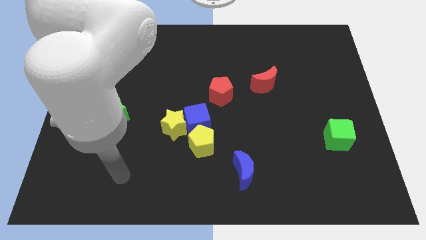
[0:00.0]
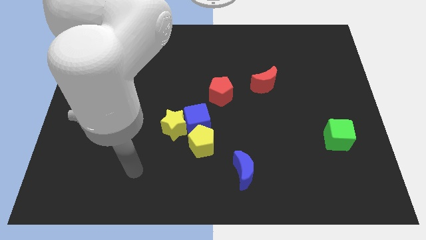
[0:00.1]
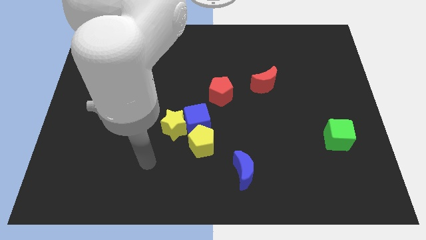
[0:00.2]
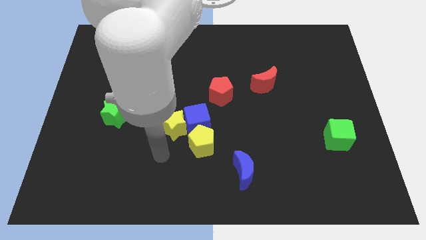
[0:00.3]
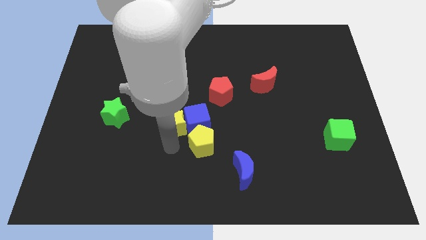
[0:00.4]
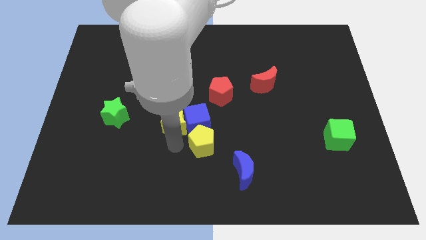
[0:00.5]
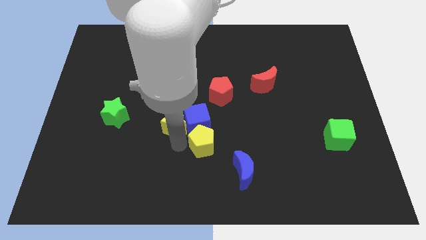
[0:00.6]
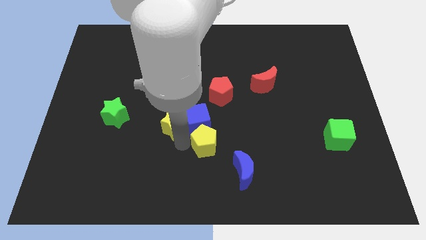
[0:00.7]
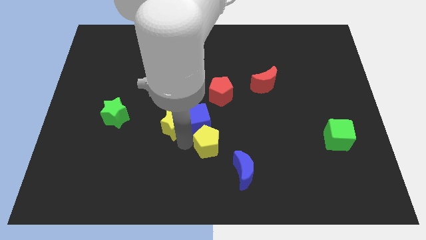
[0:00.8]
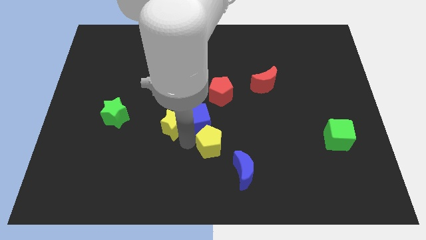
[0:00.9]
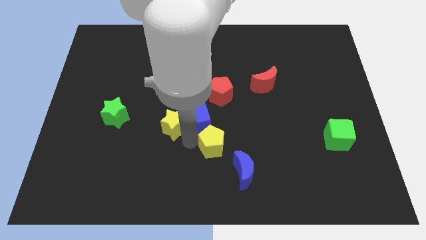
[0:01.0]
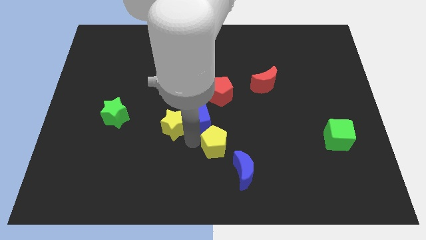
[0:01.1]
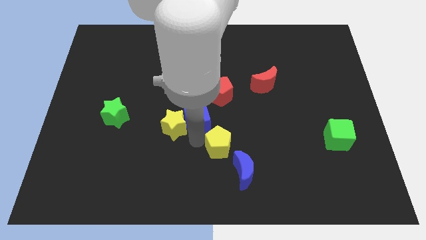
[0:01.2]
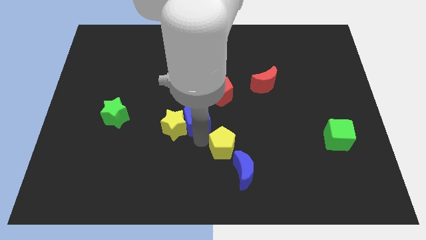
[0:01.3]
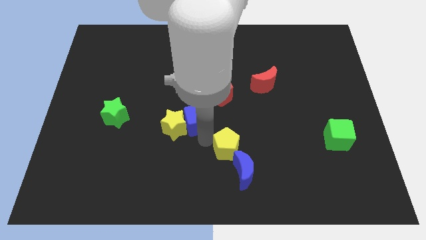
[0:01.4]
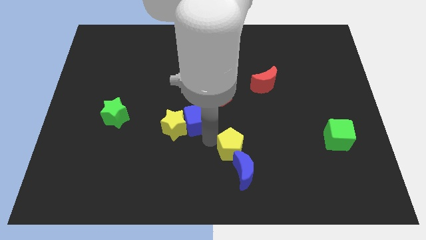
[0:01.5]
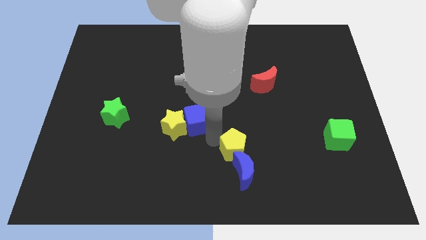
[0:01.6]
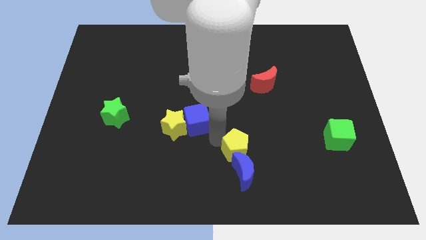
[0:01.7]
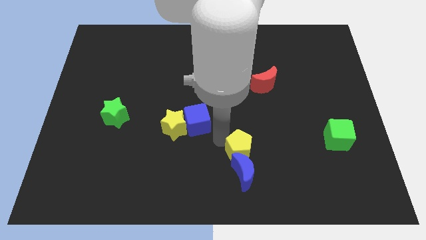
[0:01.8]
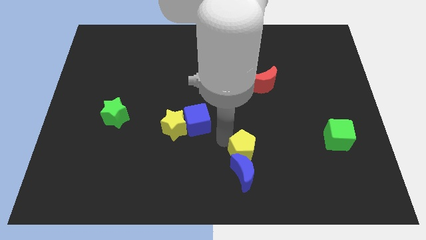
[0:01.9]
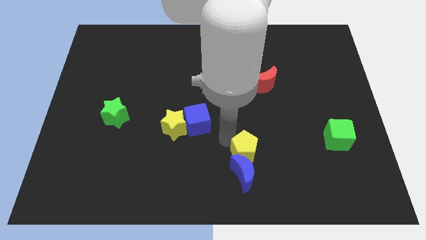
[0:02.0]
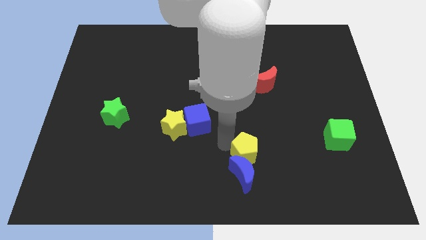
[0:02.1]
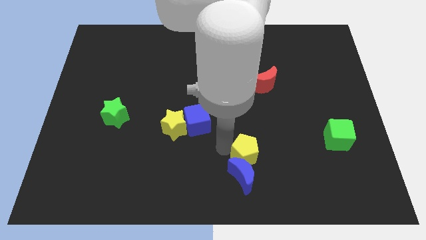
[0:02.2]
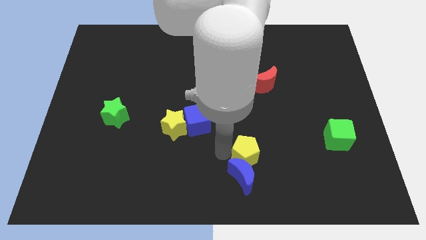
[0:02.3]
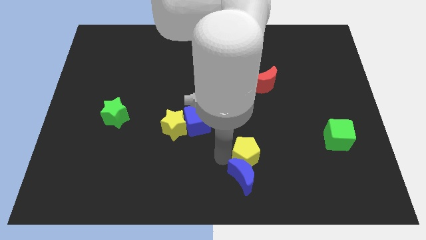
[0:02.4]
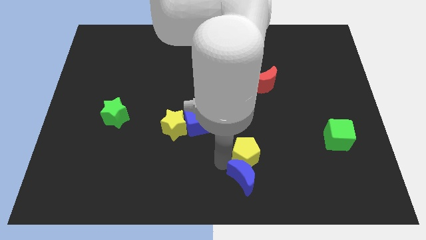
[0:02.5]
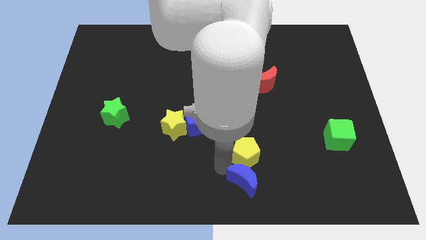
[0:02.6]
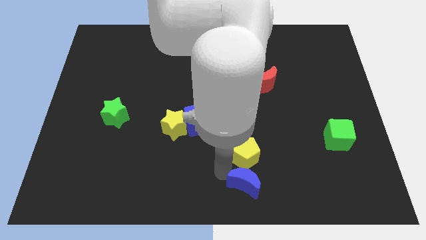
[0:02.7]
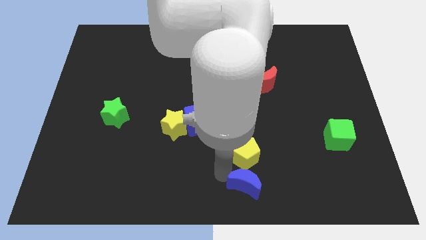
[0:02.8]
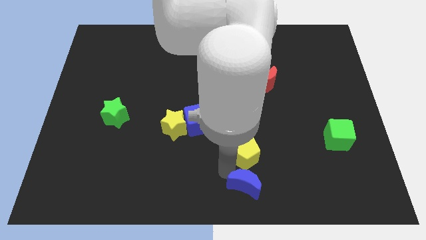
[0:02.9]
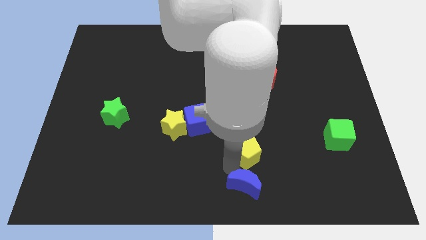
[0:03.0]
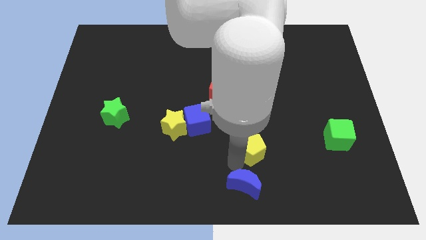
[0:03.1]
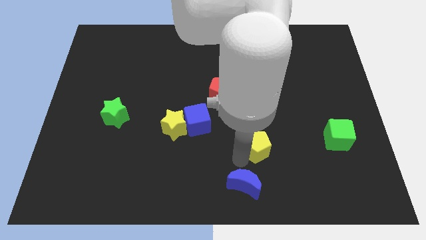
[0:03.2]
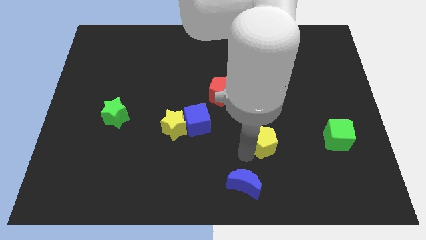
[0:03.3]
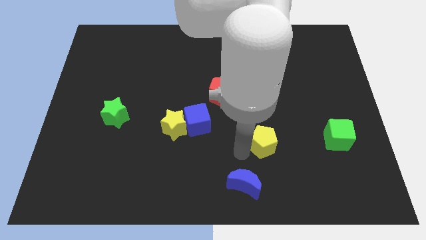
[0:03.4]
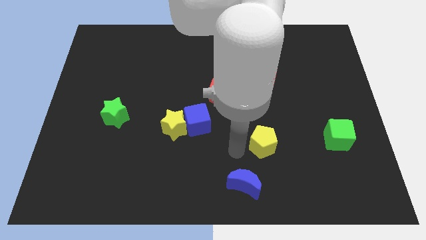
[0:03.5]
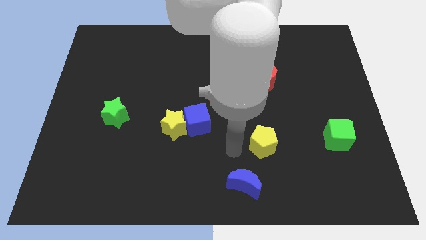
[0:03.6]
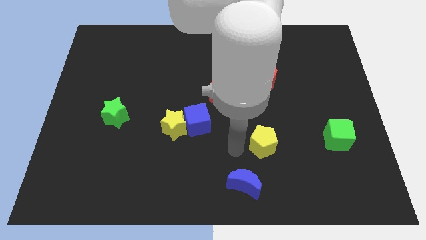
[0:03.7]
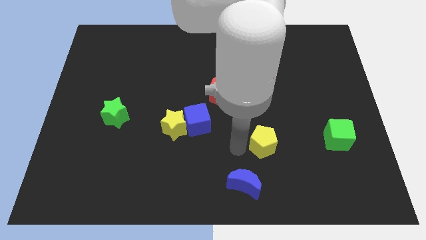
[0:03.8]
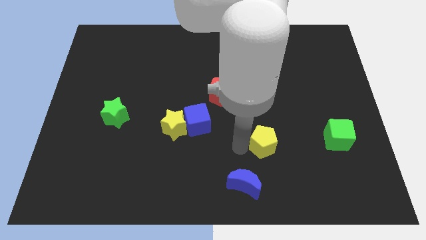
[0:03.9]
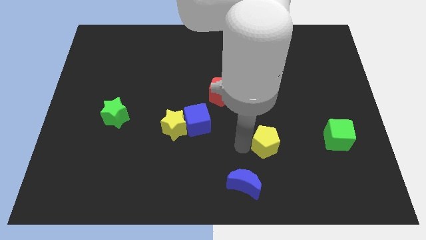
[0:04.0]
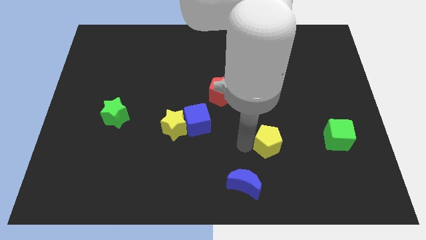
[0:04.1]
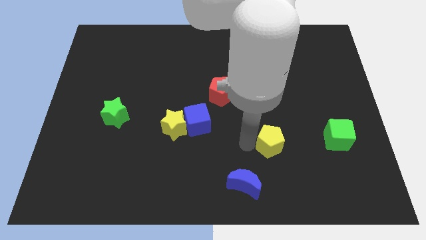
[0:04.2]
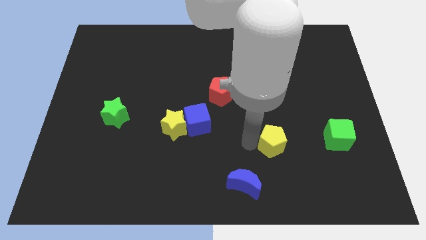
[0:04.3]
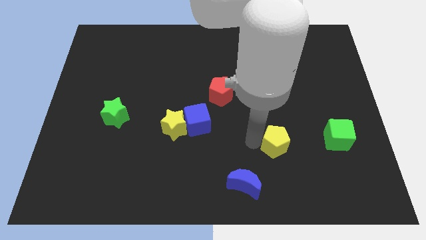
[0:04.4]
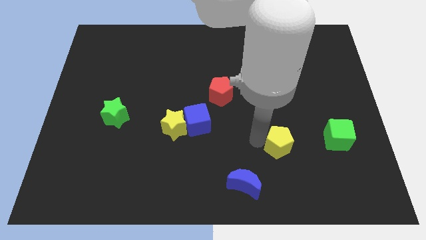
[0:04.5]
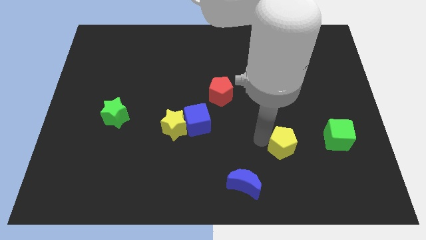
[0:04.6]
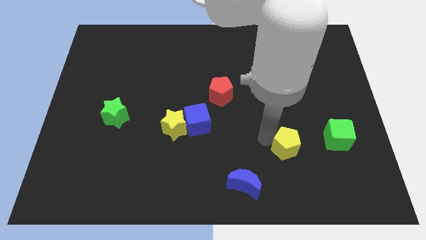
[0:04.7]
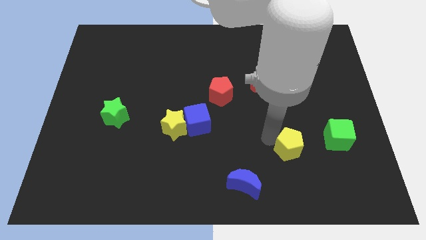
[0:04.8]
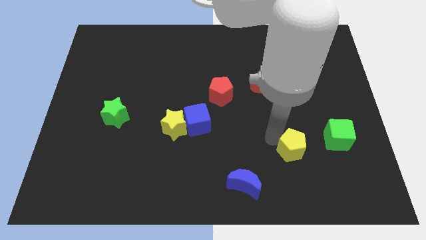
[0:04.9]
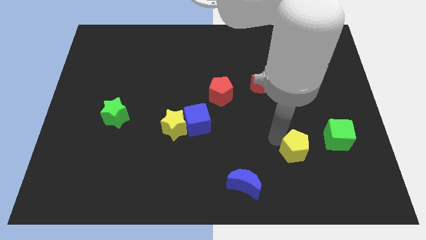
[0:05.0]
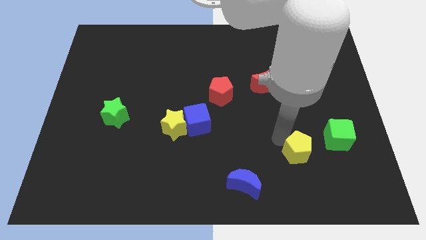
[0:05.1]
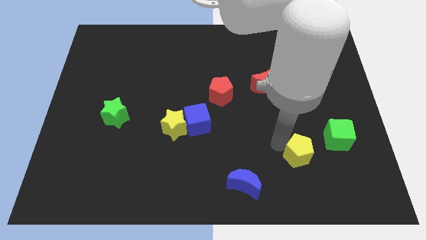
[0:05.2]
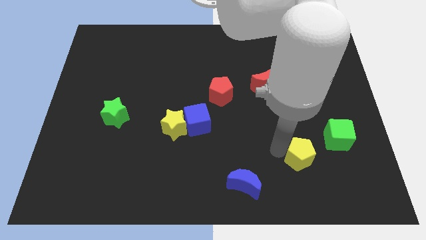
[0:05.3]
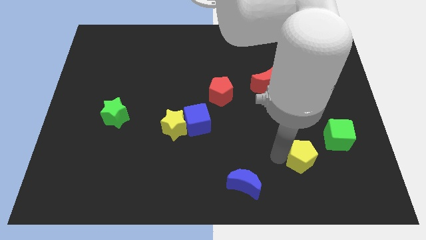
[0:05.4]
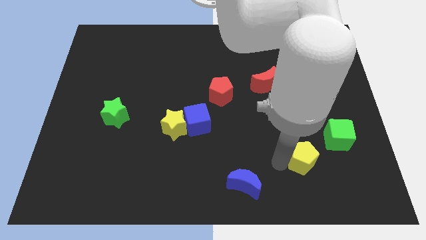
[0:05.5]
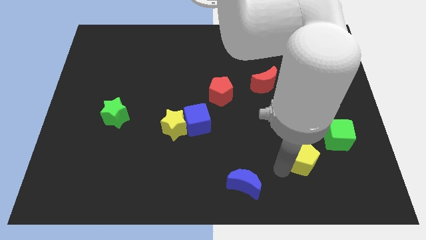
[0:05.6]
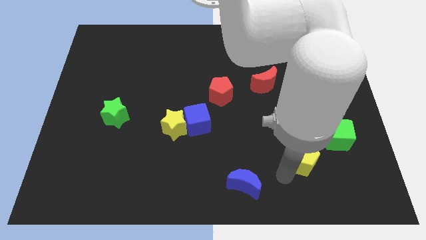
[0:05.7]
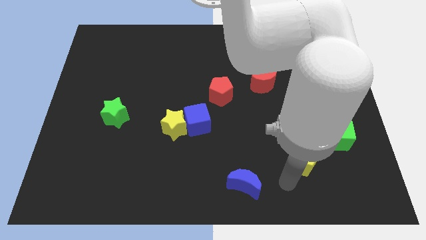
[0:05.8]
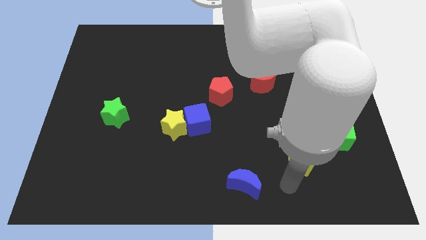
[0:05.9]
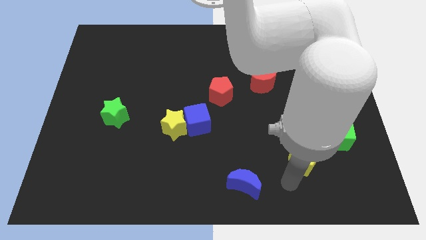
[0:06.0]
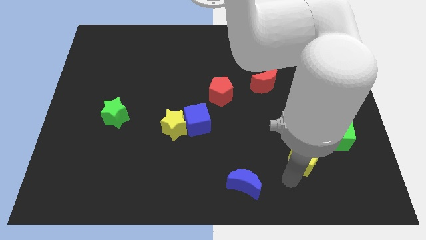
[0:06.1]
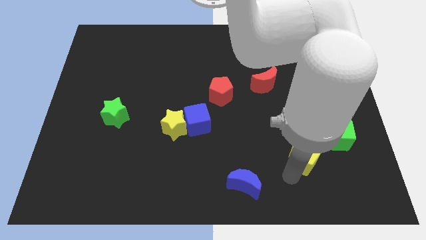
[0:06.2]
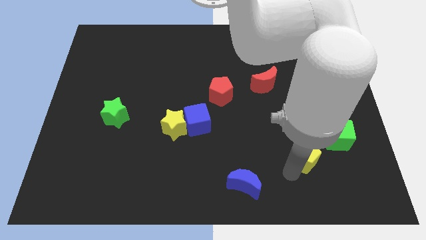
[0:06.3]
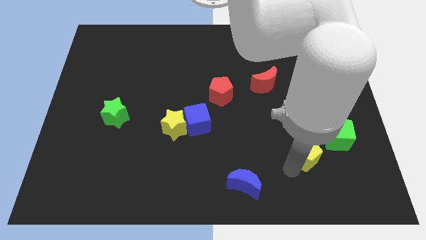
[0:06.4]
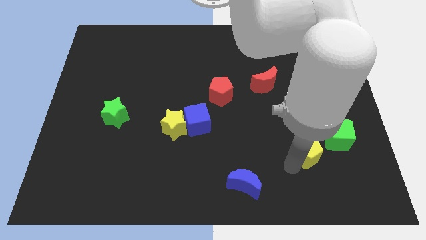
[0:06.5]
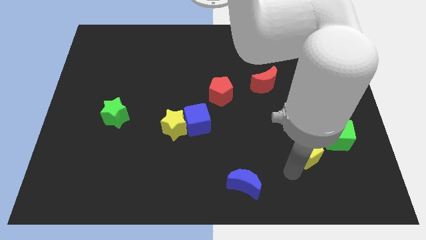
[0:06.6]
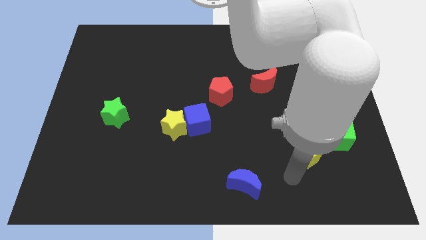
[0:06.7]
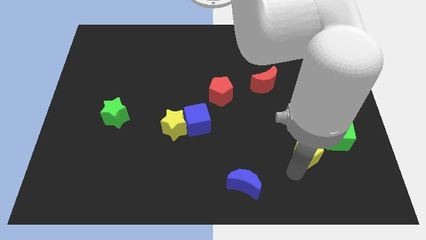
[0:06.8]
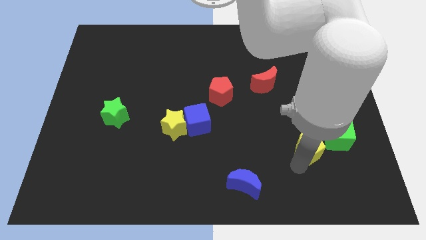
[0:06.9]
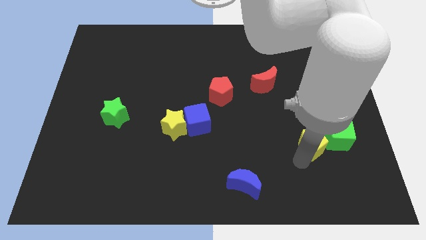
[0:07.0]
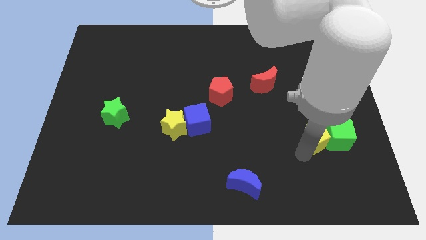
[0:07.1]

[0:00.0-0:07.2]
move the yellow pentagon next to the green cube
